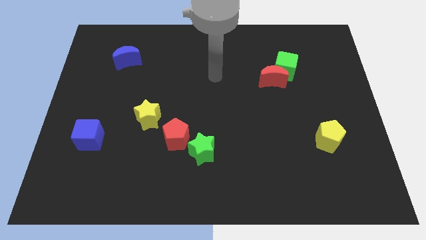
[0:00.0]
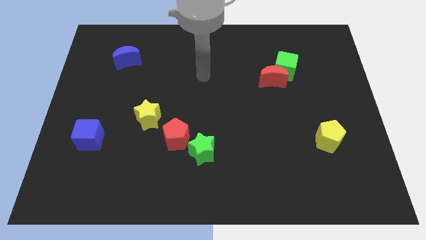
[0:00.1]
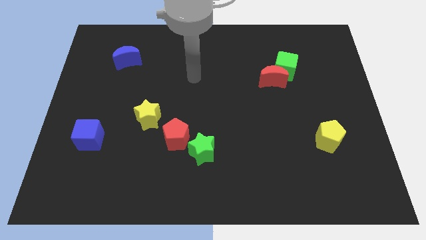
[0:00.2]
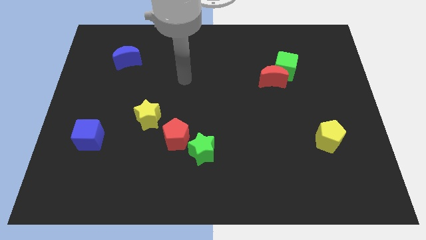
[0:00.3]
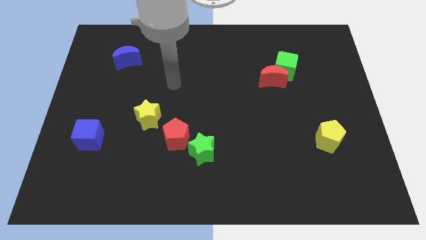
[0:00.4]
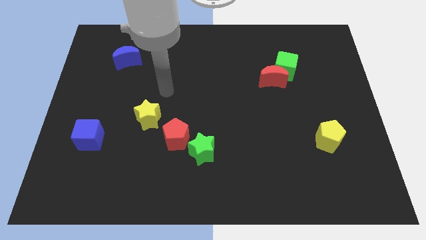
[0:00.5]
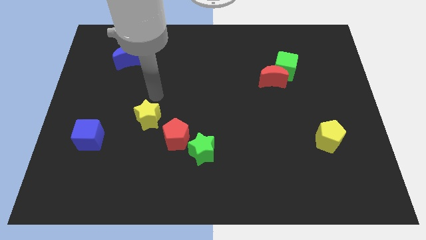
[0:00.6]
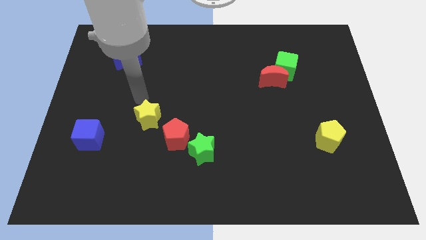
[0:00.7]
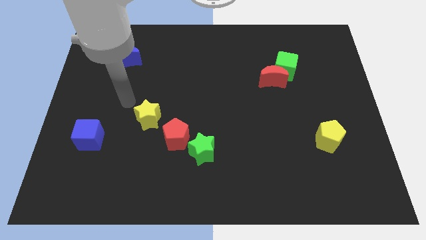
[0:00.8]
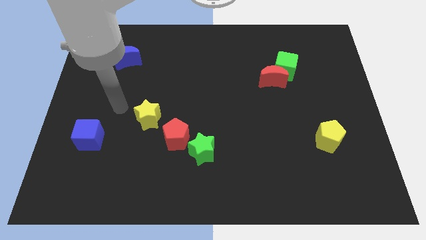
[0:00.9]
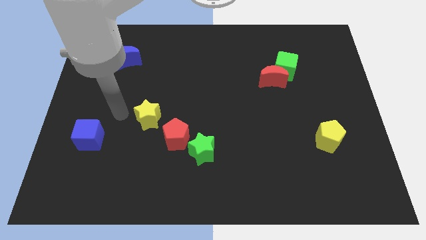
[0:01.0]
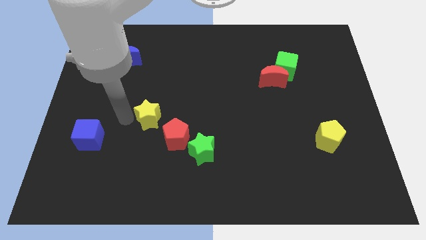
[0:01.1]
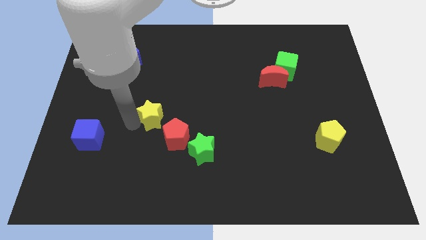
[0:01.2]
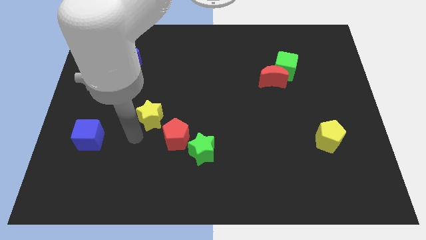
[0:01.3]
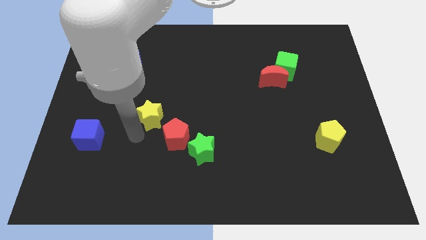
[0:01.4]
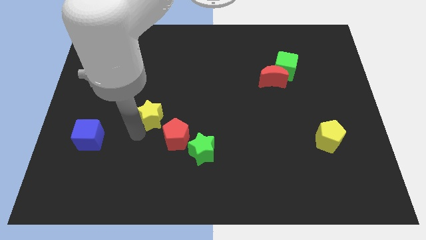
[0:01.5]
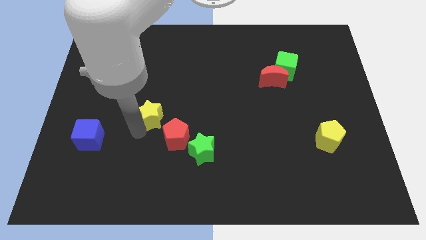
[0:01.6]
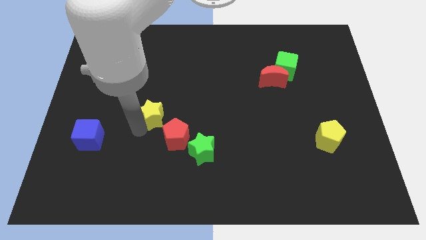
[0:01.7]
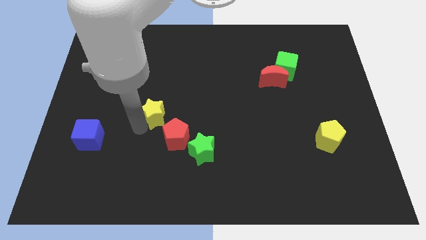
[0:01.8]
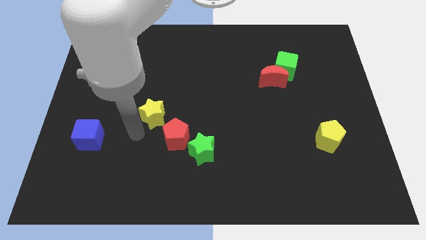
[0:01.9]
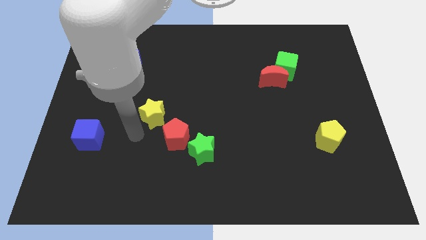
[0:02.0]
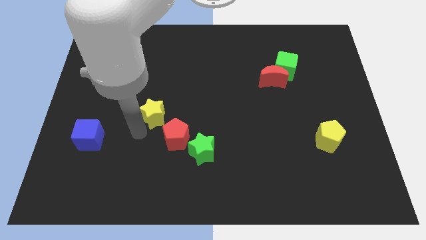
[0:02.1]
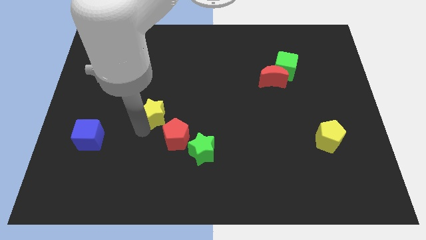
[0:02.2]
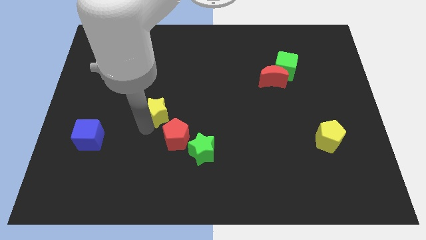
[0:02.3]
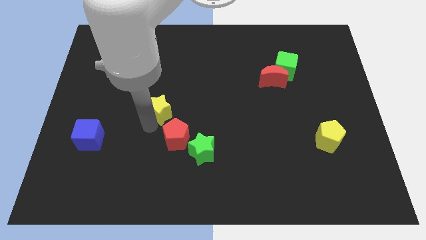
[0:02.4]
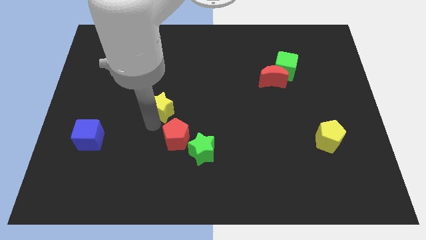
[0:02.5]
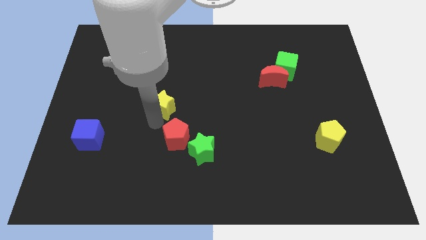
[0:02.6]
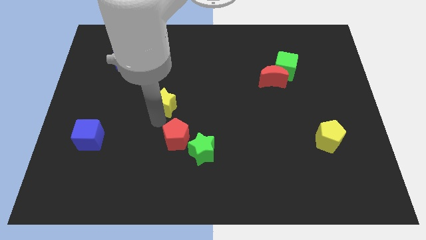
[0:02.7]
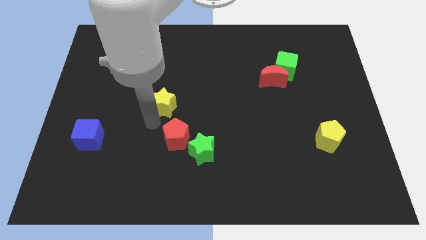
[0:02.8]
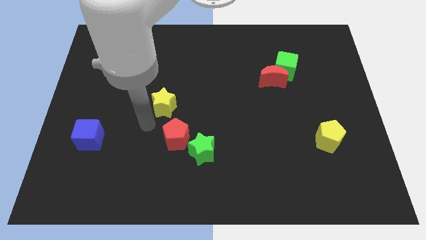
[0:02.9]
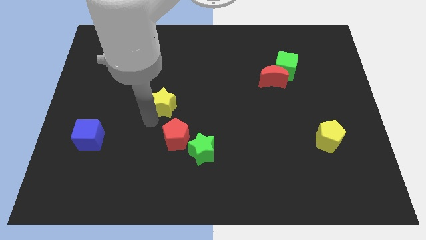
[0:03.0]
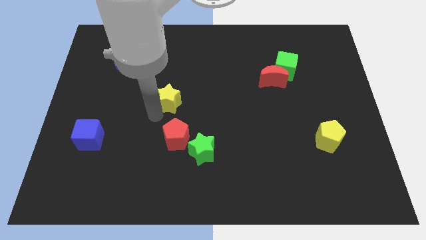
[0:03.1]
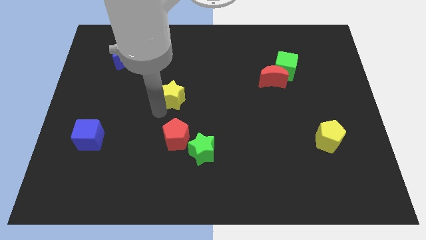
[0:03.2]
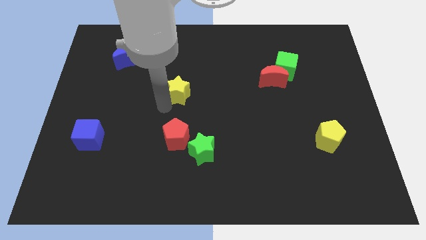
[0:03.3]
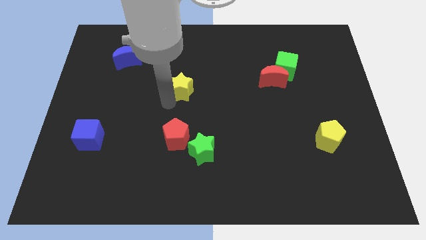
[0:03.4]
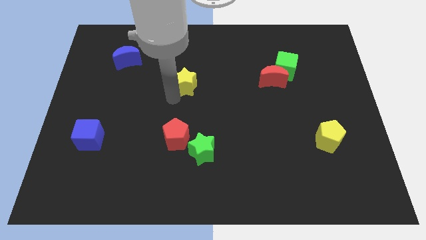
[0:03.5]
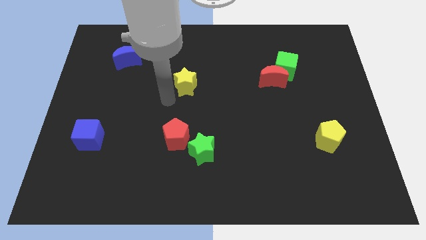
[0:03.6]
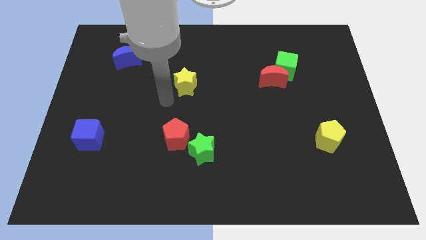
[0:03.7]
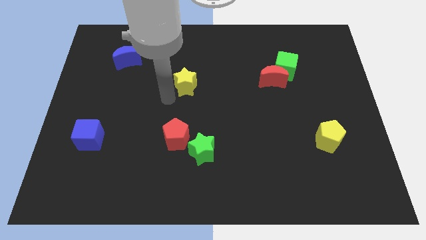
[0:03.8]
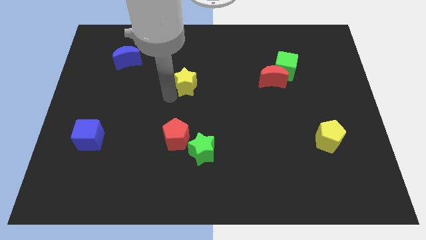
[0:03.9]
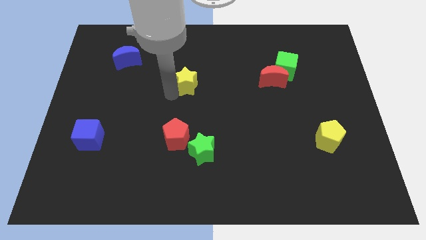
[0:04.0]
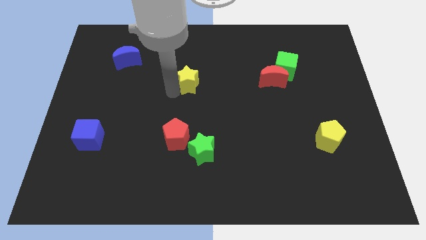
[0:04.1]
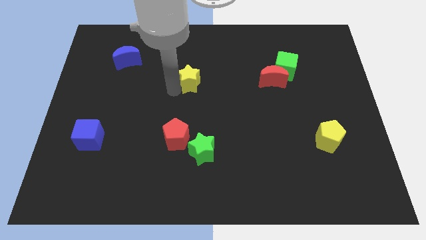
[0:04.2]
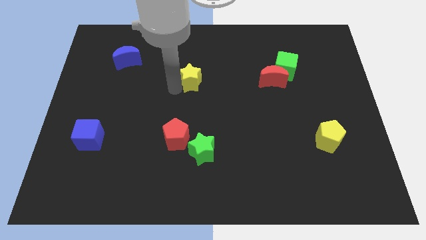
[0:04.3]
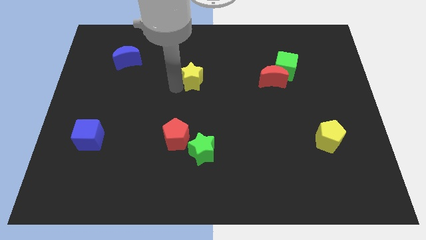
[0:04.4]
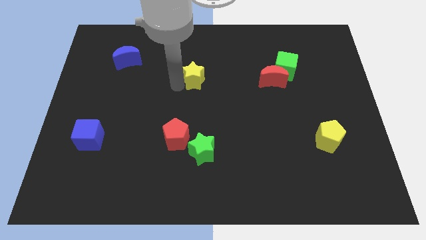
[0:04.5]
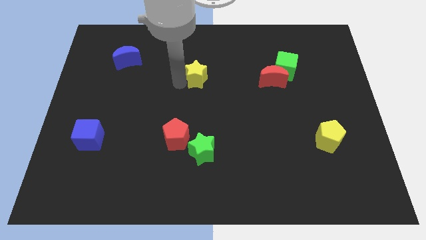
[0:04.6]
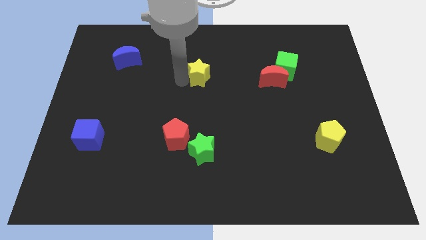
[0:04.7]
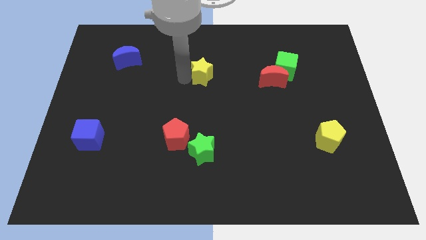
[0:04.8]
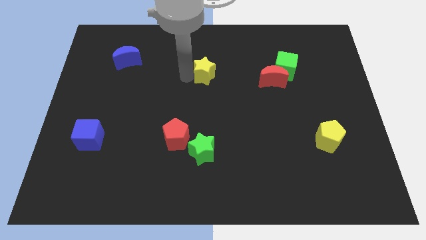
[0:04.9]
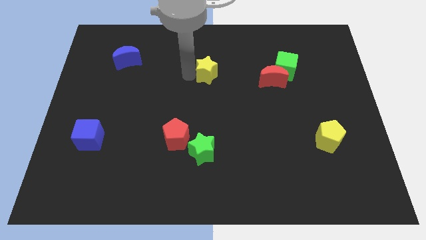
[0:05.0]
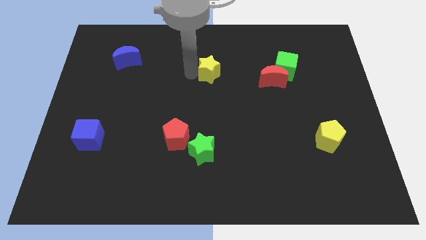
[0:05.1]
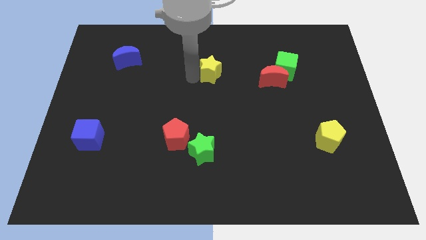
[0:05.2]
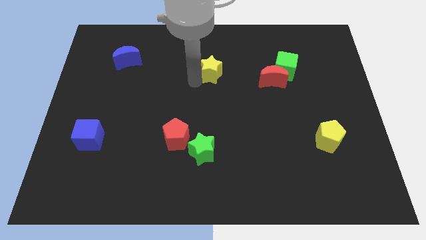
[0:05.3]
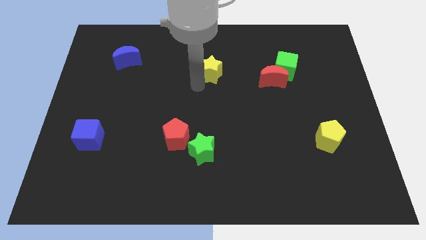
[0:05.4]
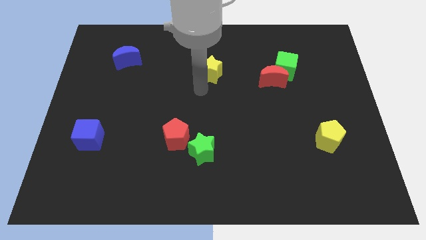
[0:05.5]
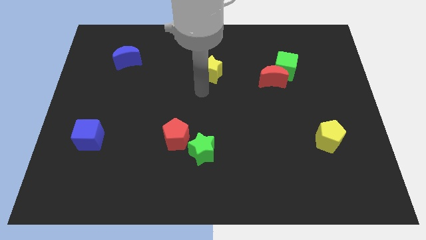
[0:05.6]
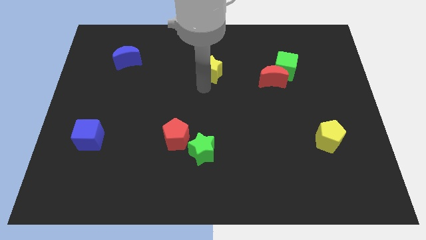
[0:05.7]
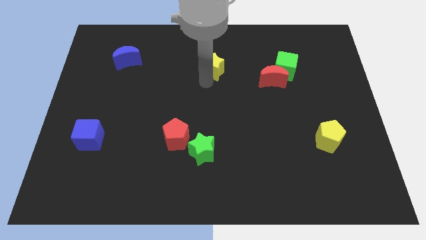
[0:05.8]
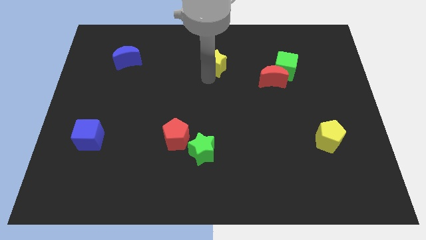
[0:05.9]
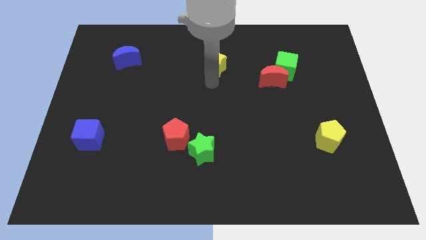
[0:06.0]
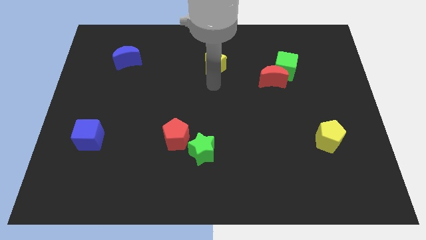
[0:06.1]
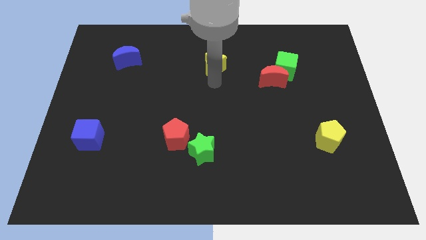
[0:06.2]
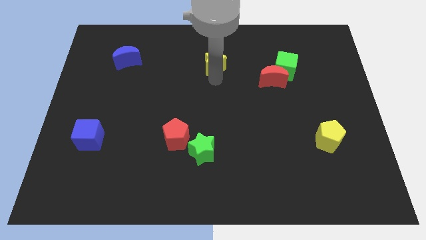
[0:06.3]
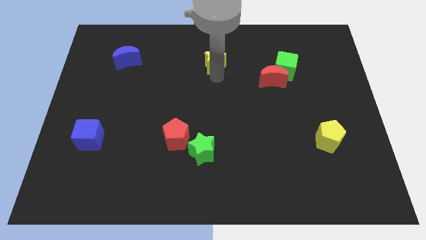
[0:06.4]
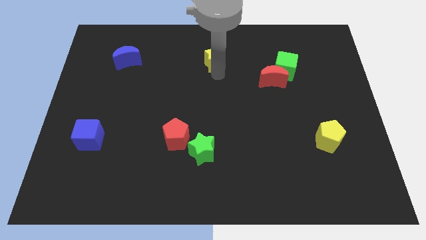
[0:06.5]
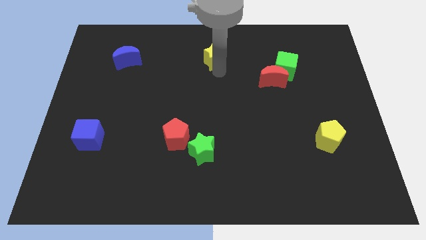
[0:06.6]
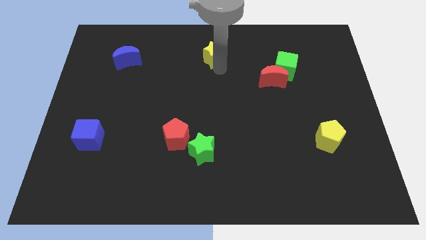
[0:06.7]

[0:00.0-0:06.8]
move the yellow star to the top side

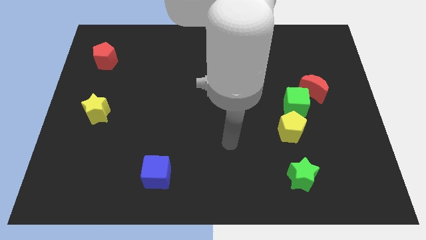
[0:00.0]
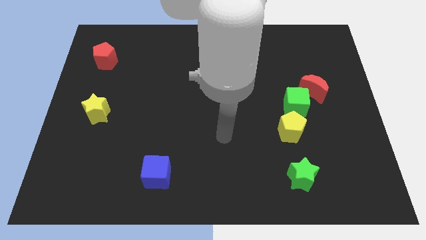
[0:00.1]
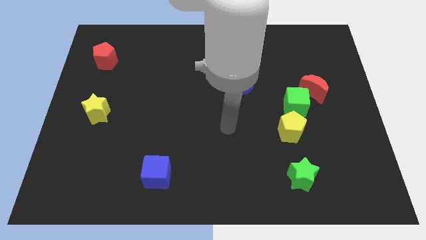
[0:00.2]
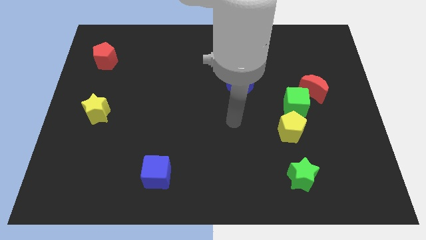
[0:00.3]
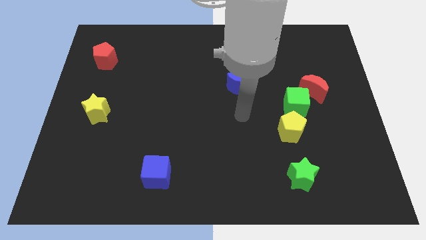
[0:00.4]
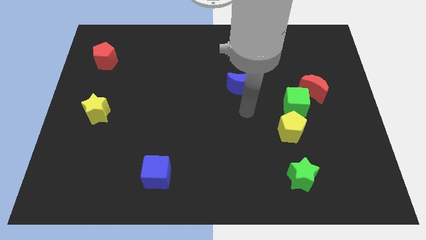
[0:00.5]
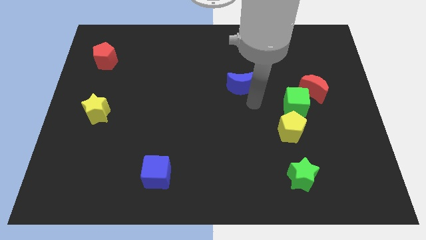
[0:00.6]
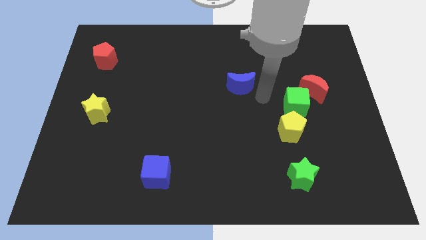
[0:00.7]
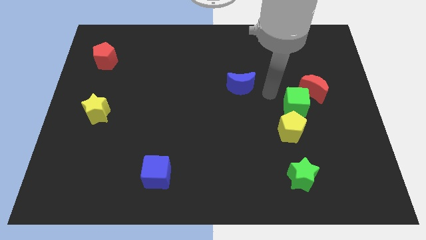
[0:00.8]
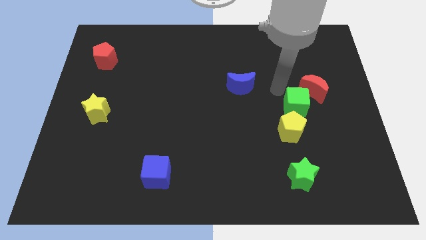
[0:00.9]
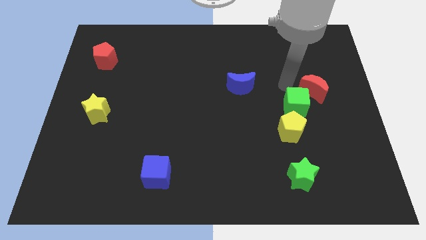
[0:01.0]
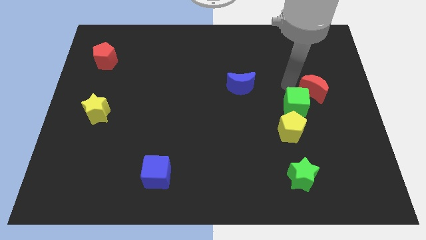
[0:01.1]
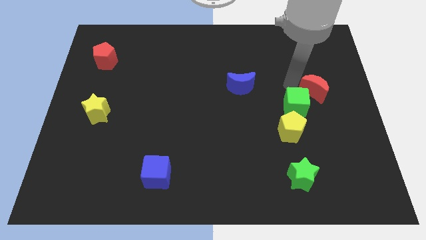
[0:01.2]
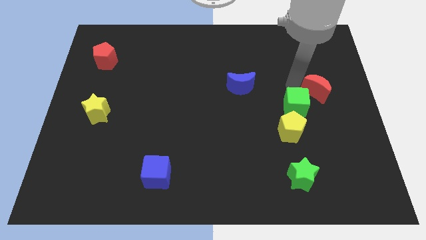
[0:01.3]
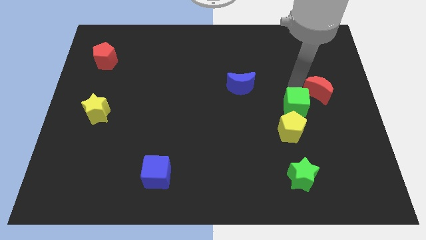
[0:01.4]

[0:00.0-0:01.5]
push the red moon to the right side of the board
